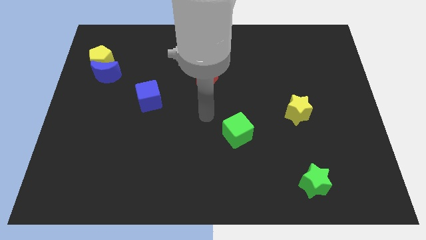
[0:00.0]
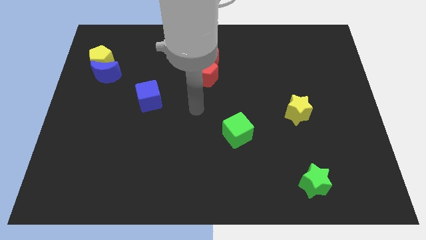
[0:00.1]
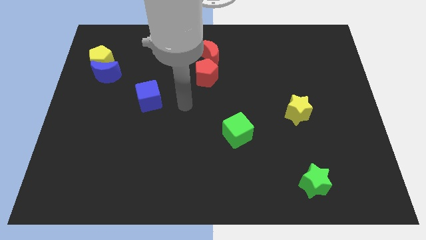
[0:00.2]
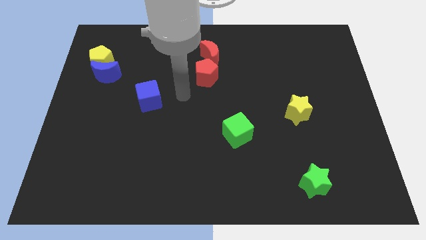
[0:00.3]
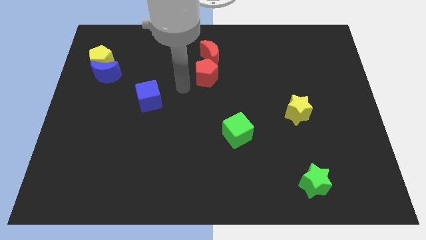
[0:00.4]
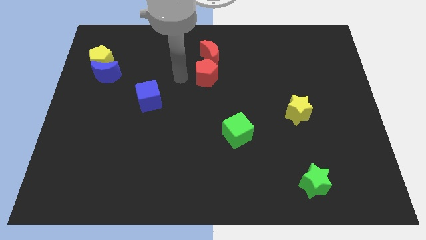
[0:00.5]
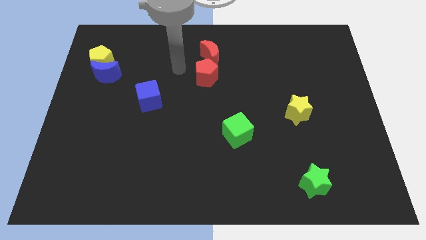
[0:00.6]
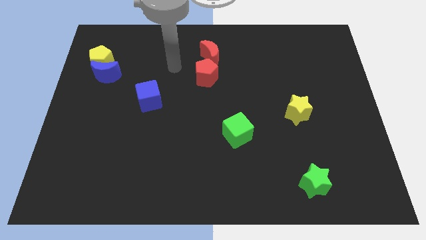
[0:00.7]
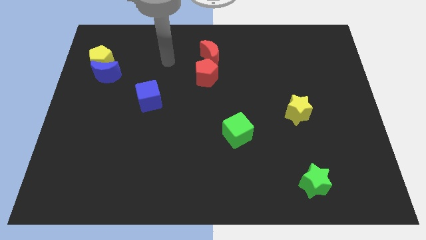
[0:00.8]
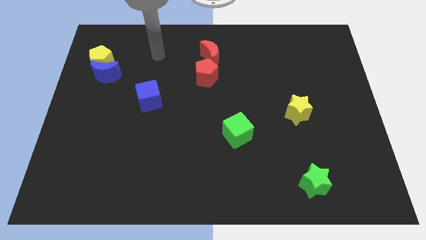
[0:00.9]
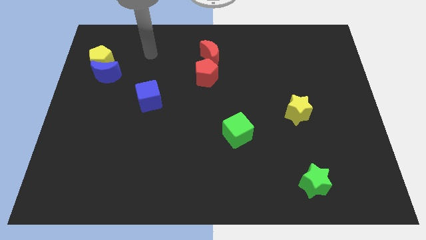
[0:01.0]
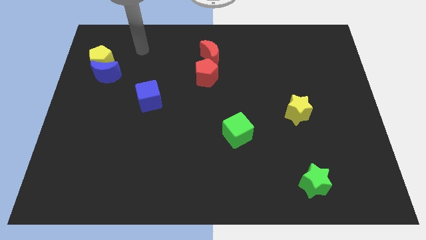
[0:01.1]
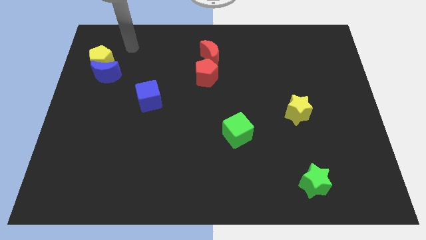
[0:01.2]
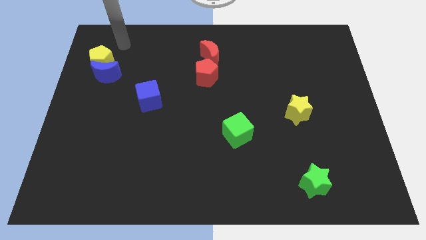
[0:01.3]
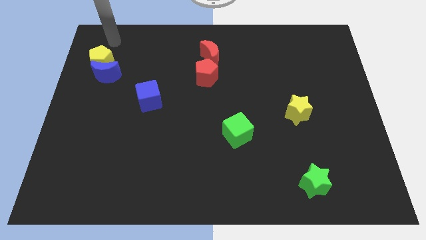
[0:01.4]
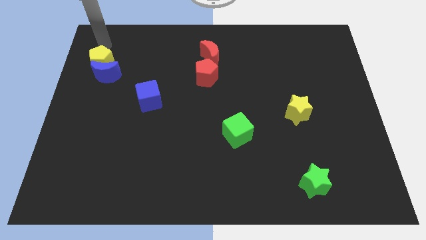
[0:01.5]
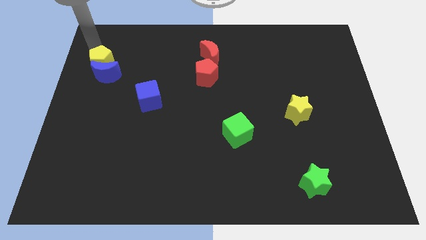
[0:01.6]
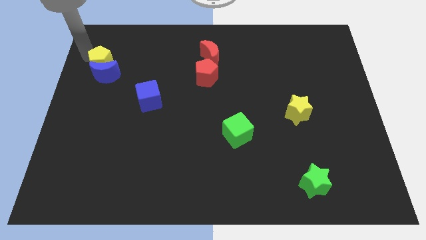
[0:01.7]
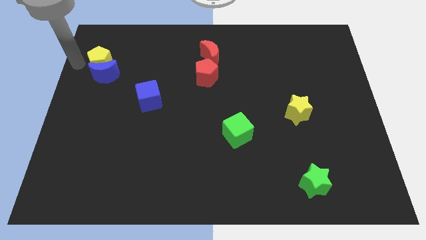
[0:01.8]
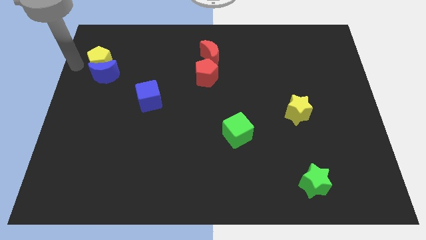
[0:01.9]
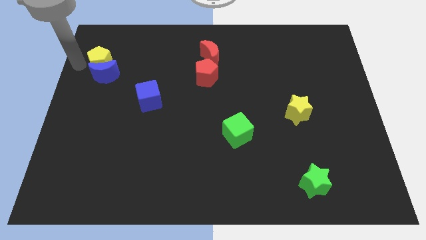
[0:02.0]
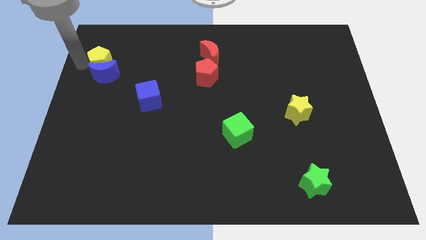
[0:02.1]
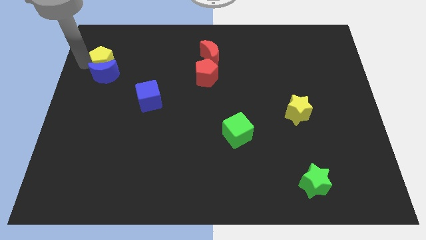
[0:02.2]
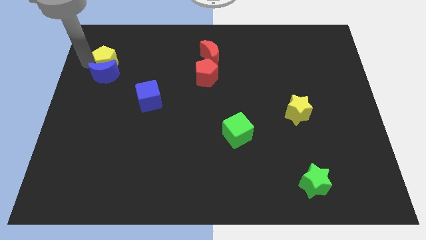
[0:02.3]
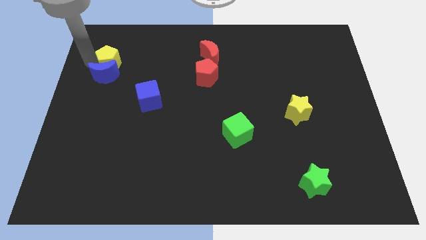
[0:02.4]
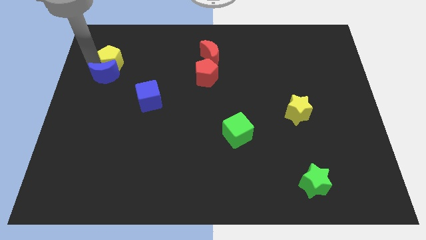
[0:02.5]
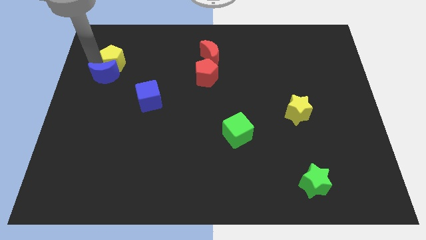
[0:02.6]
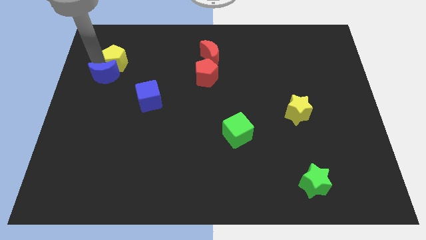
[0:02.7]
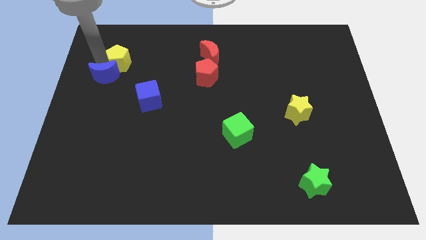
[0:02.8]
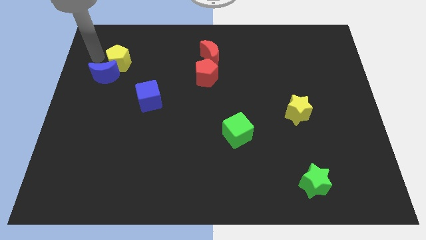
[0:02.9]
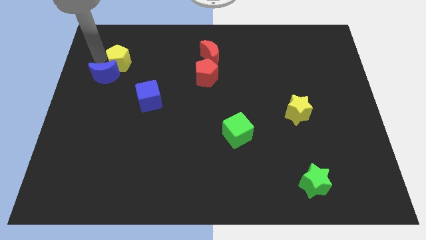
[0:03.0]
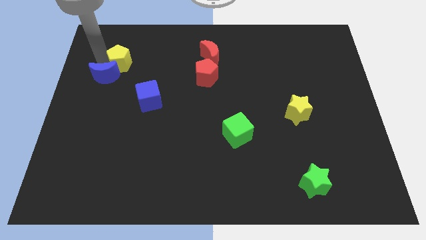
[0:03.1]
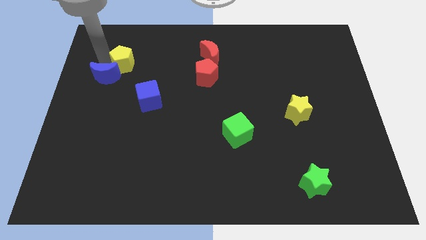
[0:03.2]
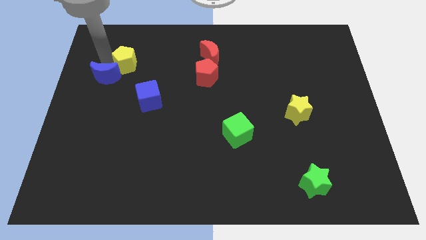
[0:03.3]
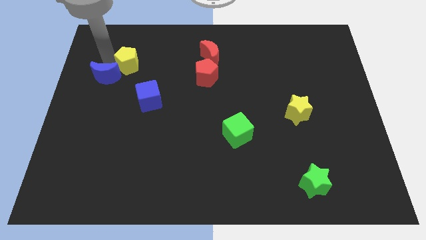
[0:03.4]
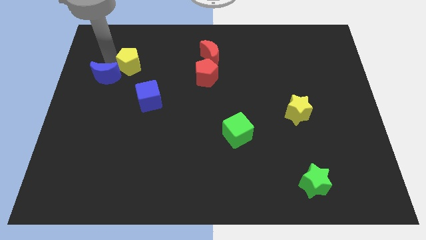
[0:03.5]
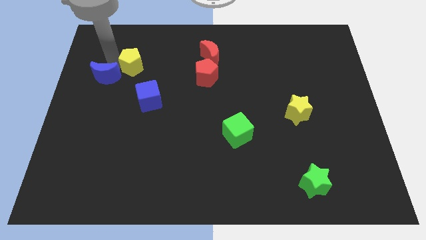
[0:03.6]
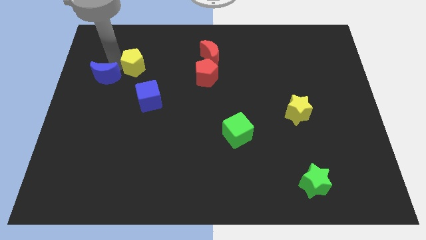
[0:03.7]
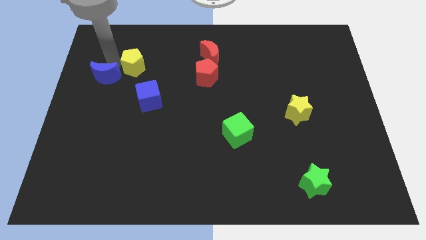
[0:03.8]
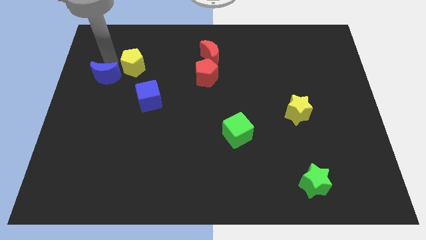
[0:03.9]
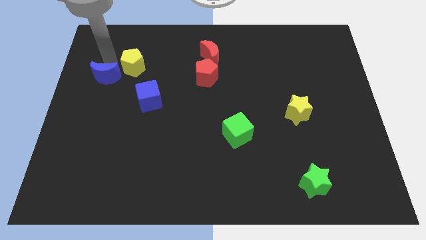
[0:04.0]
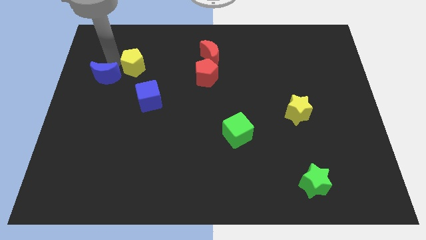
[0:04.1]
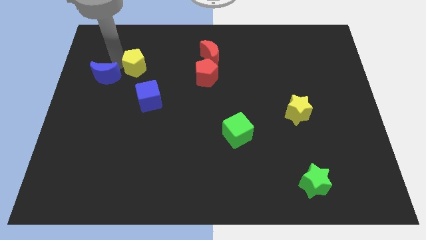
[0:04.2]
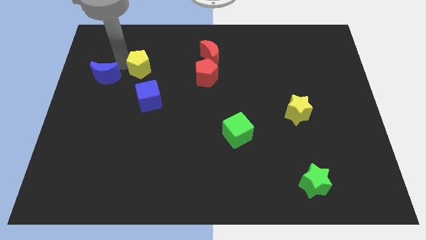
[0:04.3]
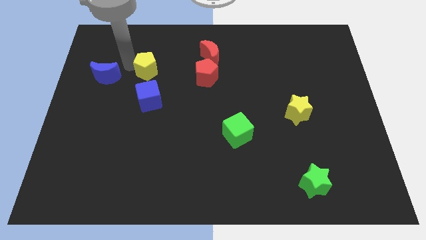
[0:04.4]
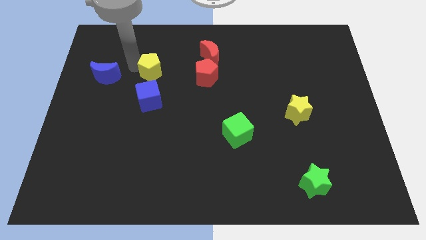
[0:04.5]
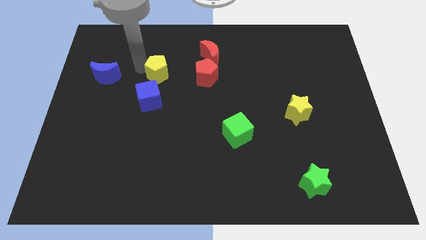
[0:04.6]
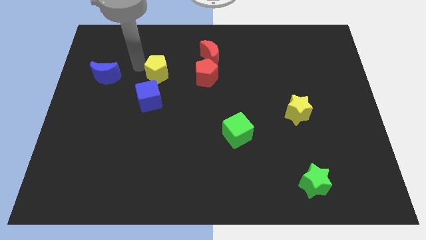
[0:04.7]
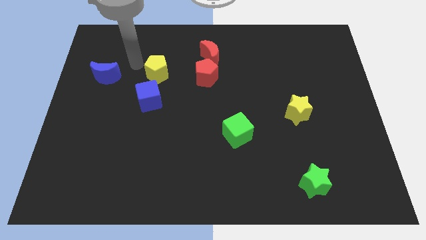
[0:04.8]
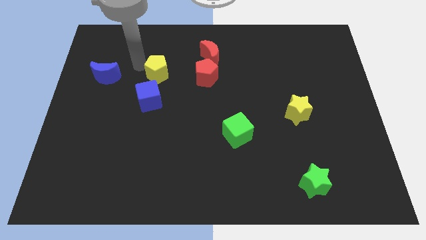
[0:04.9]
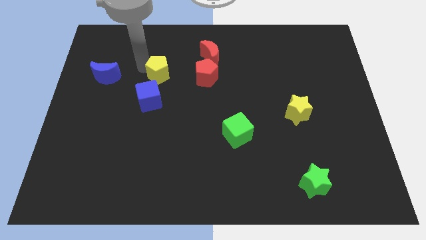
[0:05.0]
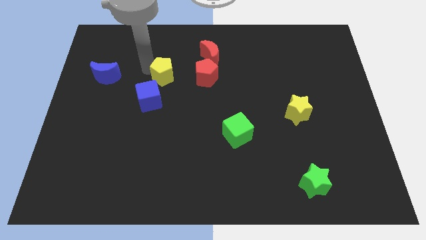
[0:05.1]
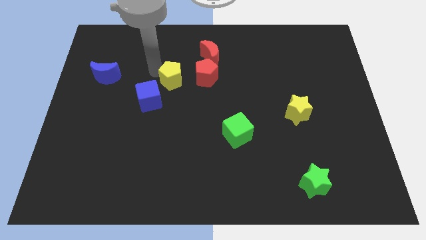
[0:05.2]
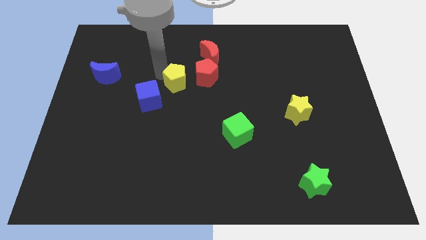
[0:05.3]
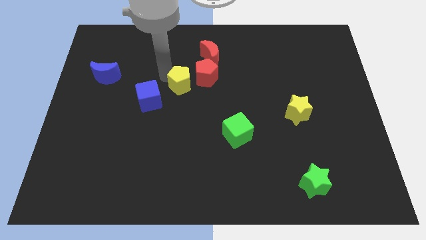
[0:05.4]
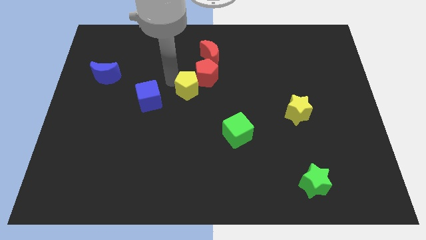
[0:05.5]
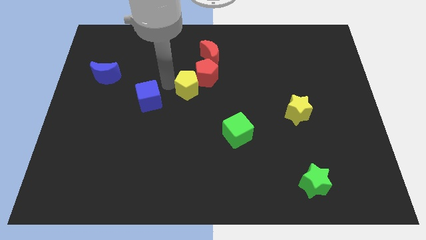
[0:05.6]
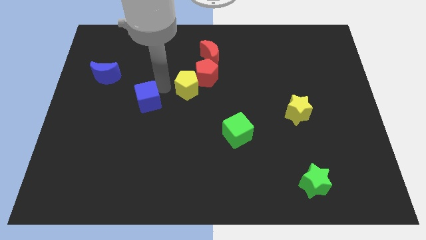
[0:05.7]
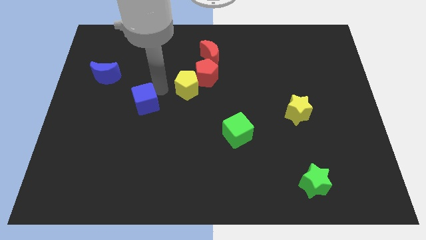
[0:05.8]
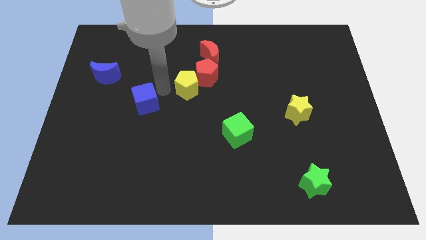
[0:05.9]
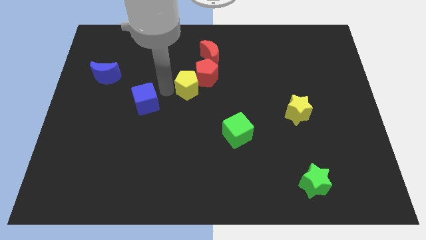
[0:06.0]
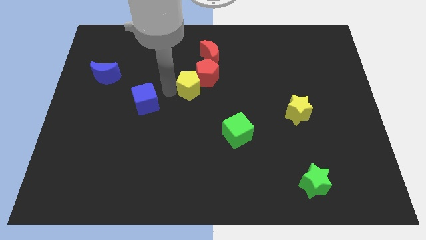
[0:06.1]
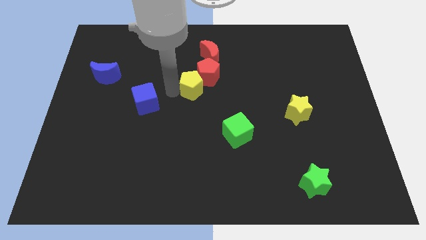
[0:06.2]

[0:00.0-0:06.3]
slide the yellow pentagon below the red moon
